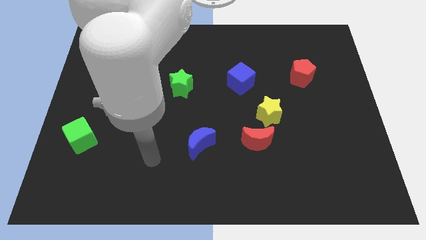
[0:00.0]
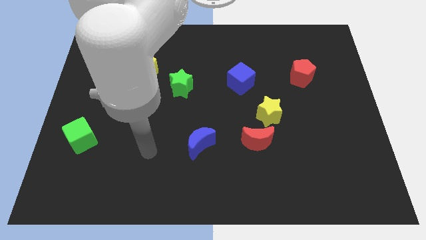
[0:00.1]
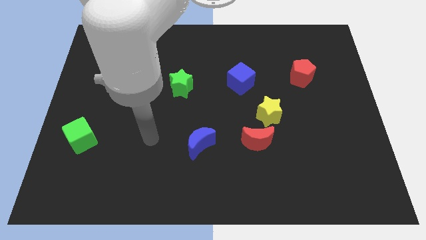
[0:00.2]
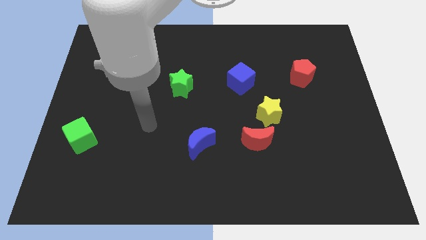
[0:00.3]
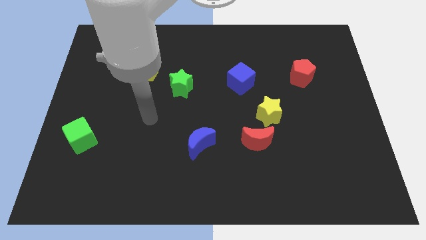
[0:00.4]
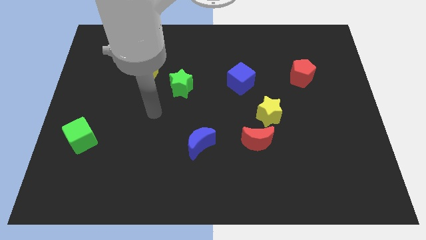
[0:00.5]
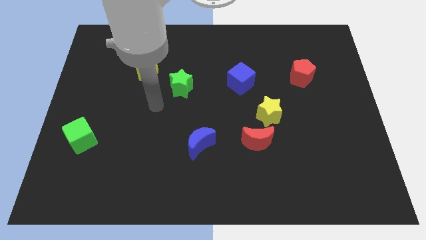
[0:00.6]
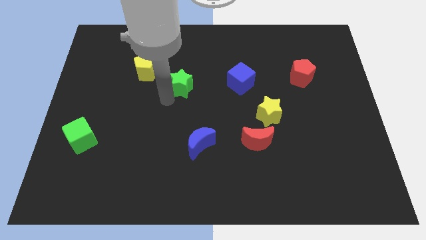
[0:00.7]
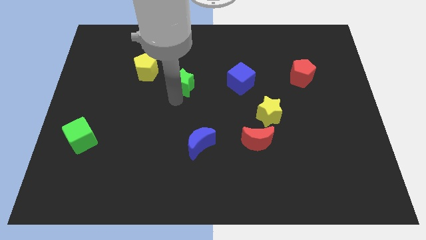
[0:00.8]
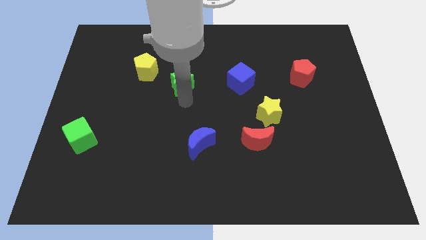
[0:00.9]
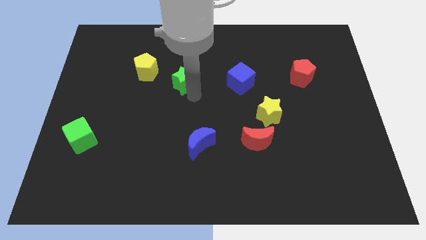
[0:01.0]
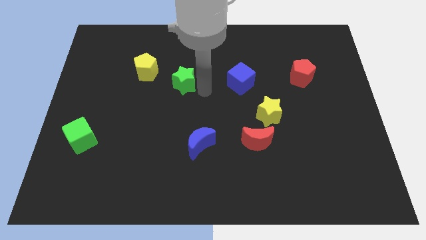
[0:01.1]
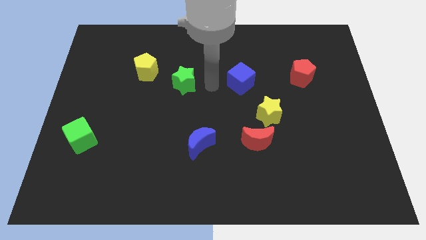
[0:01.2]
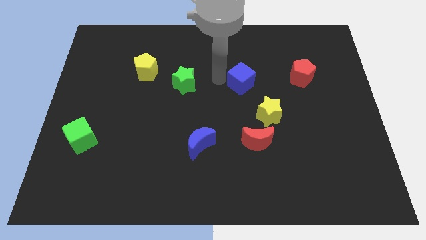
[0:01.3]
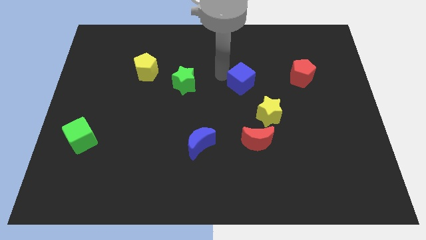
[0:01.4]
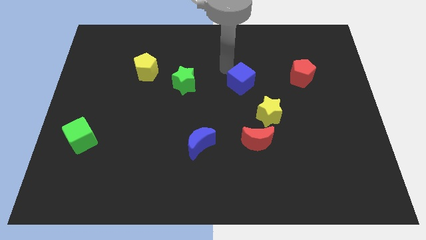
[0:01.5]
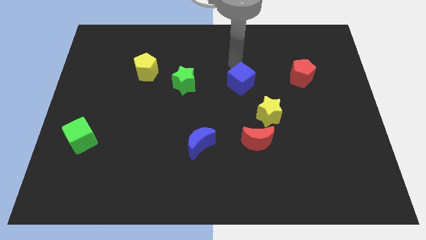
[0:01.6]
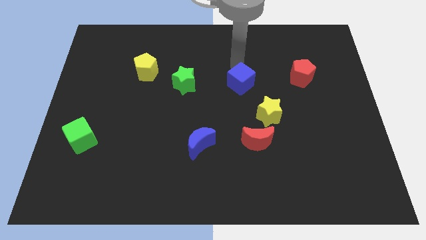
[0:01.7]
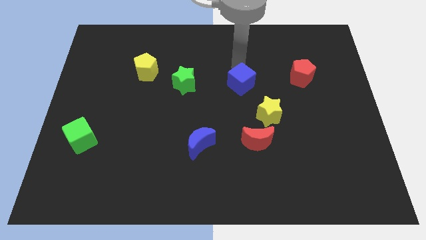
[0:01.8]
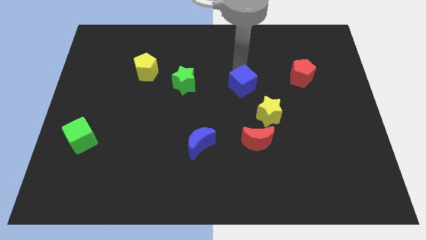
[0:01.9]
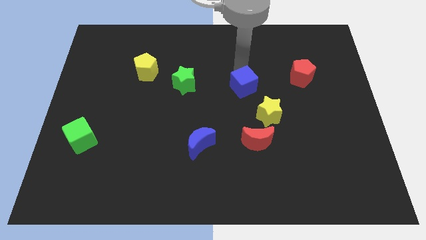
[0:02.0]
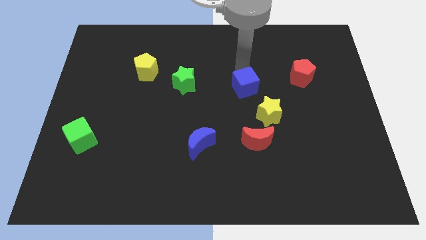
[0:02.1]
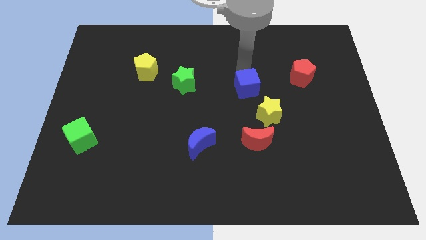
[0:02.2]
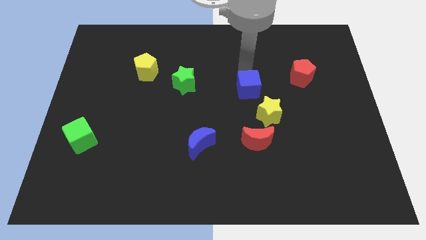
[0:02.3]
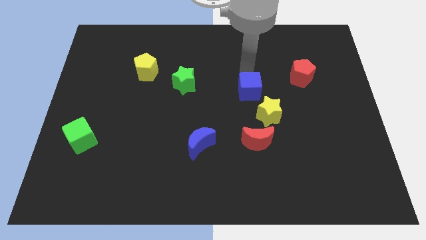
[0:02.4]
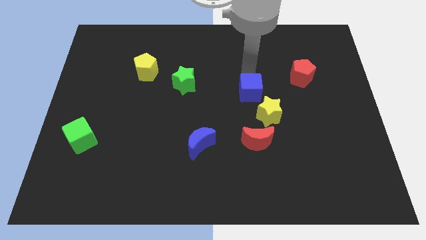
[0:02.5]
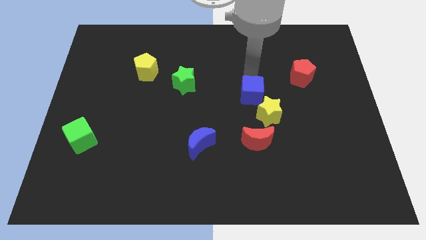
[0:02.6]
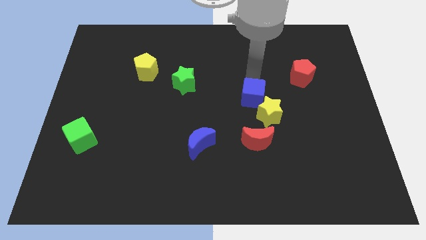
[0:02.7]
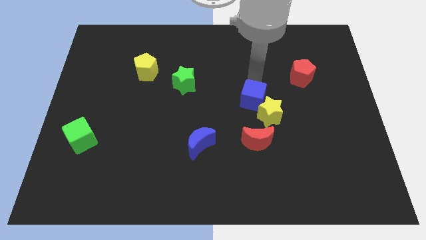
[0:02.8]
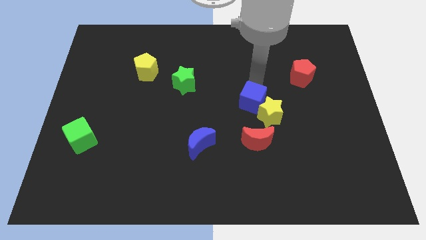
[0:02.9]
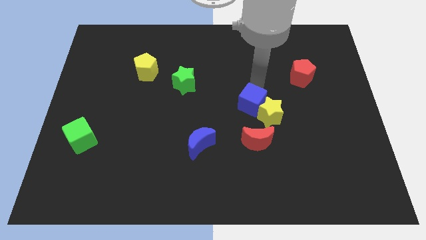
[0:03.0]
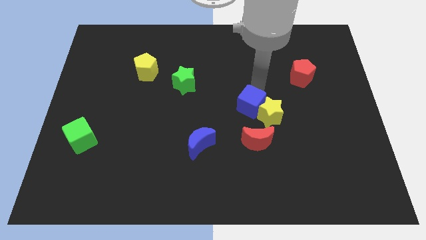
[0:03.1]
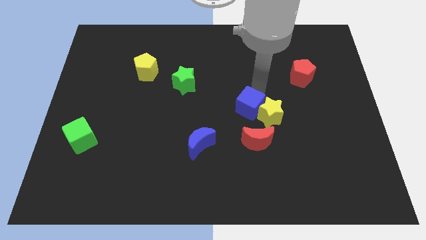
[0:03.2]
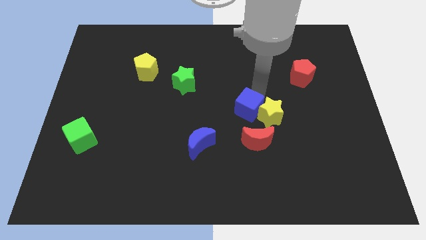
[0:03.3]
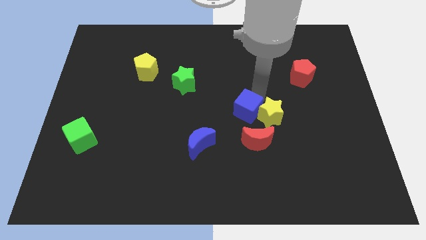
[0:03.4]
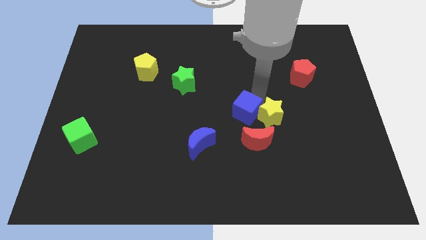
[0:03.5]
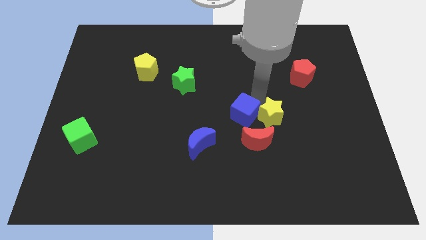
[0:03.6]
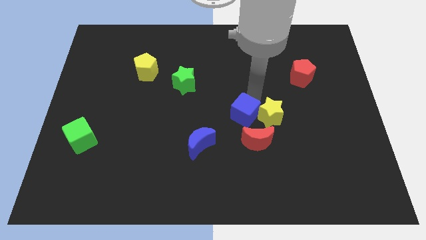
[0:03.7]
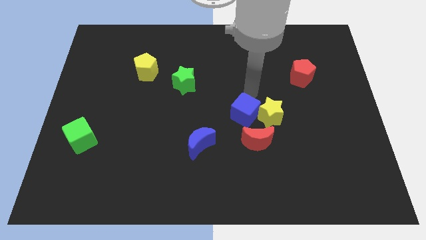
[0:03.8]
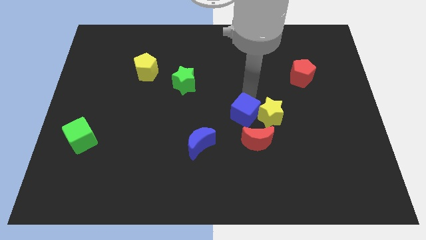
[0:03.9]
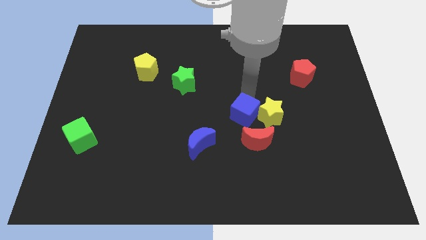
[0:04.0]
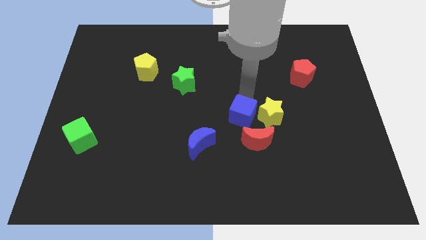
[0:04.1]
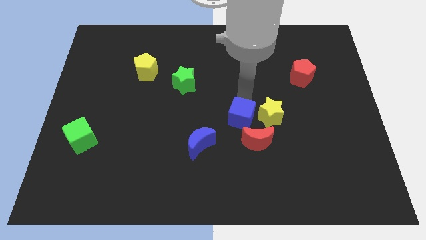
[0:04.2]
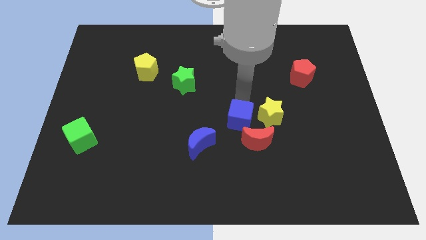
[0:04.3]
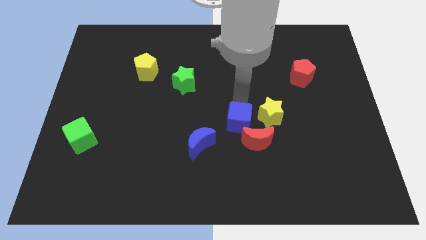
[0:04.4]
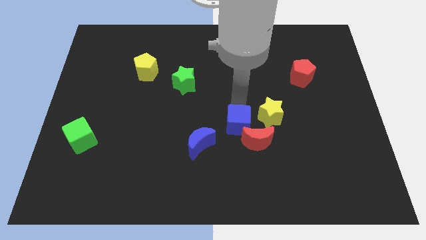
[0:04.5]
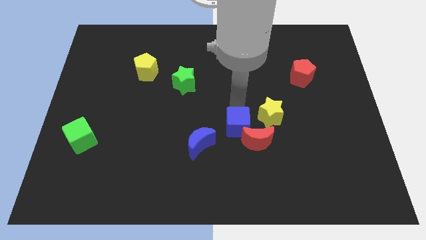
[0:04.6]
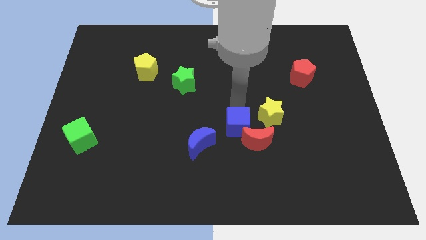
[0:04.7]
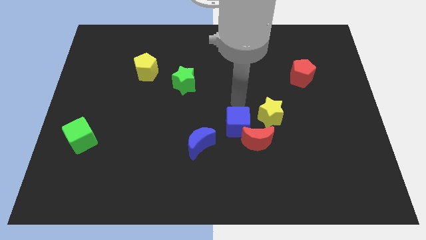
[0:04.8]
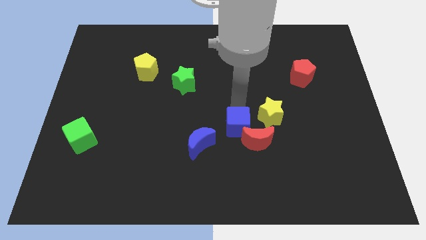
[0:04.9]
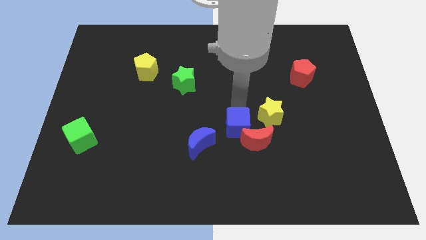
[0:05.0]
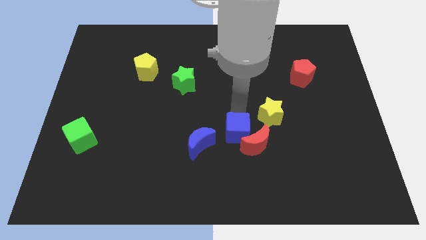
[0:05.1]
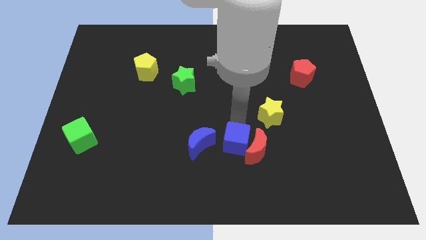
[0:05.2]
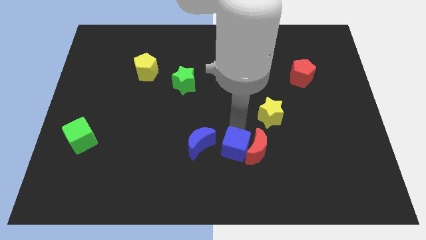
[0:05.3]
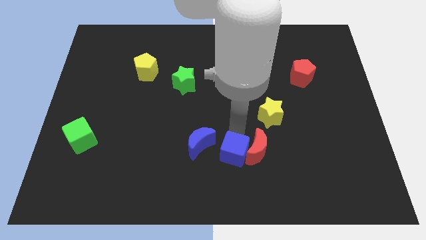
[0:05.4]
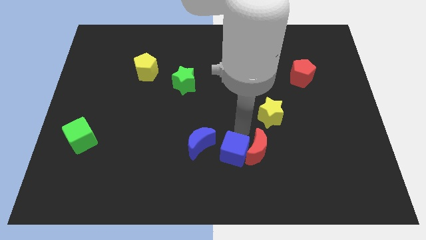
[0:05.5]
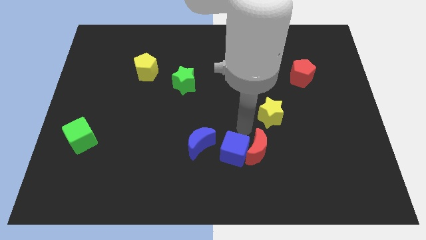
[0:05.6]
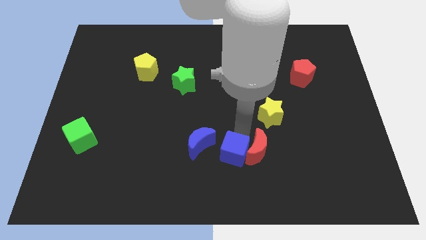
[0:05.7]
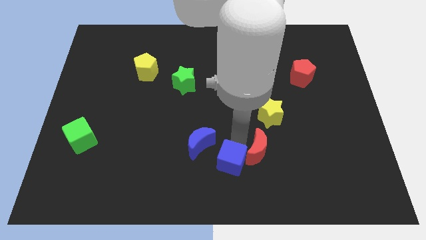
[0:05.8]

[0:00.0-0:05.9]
slide the blue cube to the bottom side
